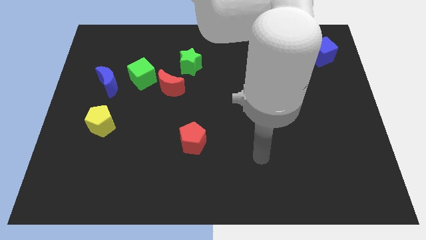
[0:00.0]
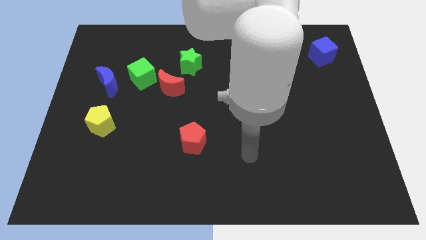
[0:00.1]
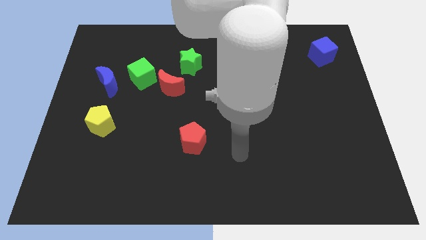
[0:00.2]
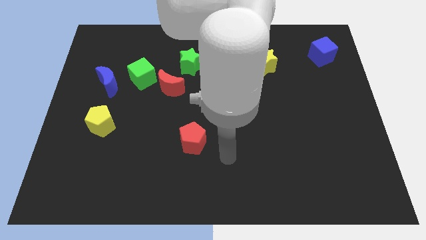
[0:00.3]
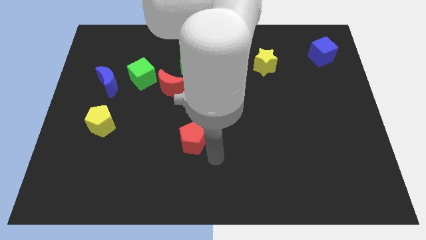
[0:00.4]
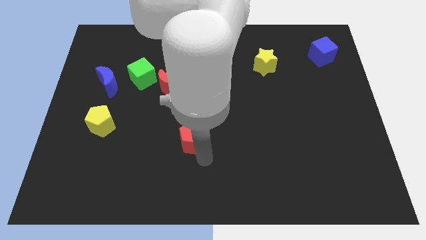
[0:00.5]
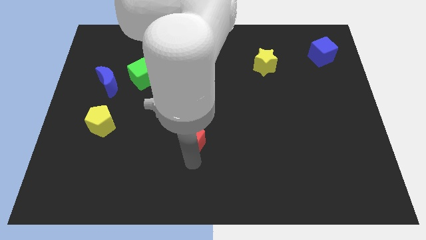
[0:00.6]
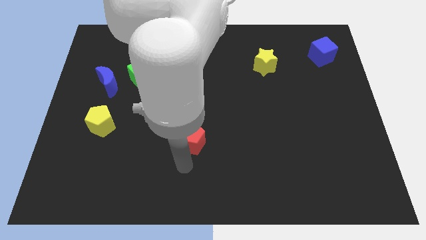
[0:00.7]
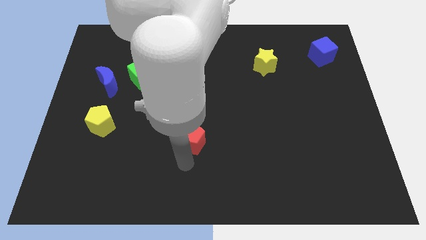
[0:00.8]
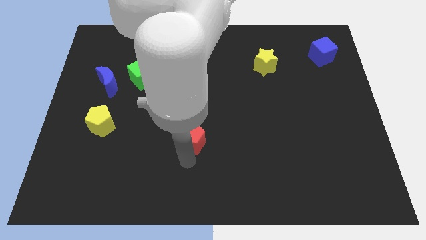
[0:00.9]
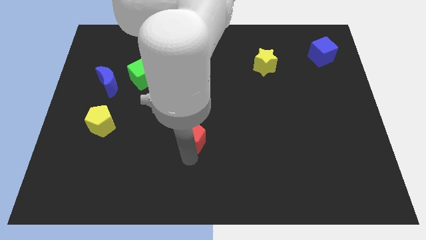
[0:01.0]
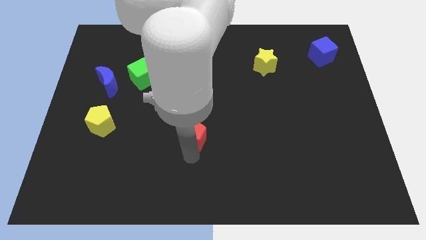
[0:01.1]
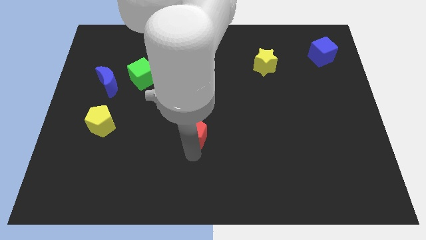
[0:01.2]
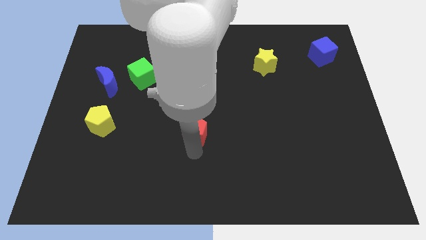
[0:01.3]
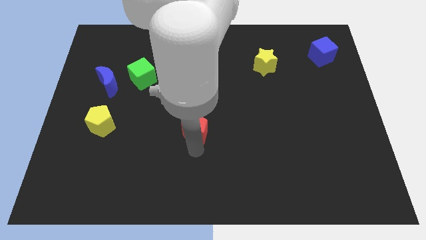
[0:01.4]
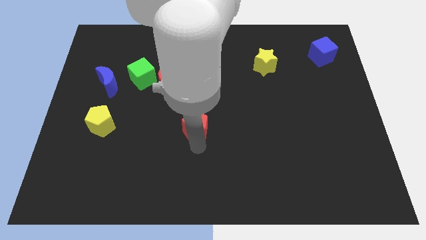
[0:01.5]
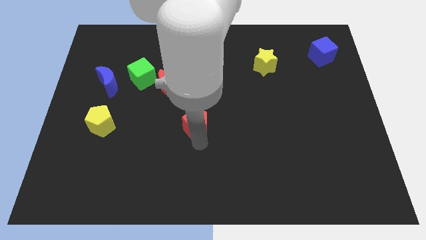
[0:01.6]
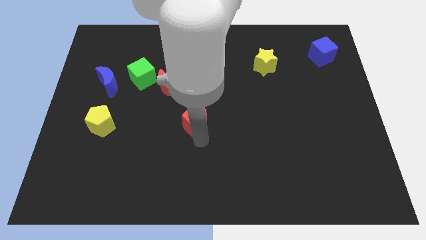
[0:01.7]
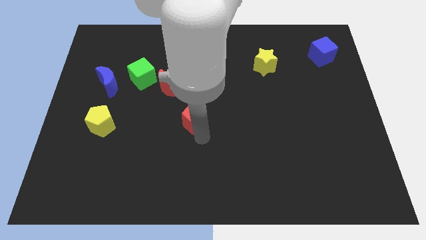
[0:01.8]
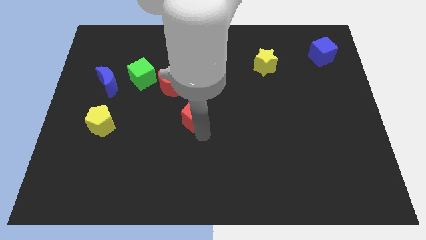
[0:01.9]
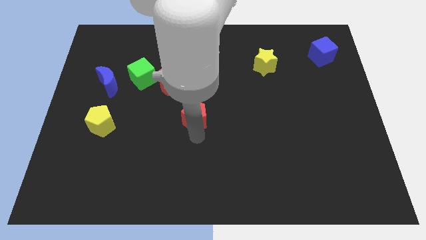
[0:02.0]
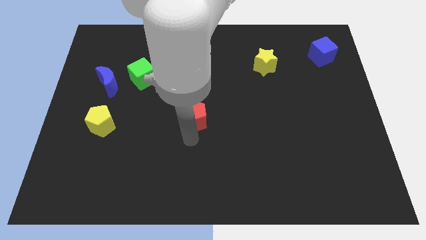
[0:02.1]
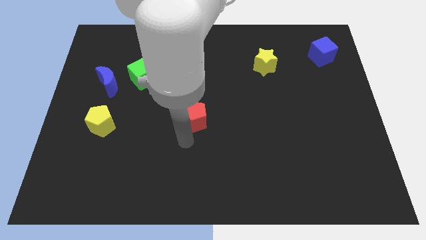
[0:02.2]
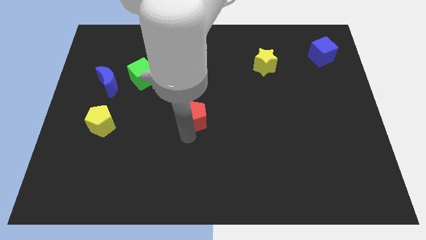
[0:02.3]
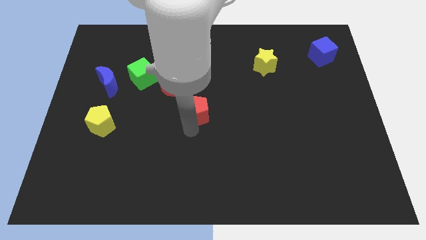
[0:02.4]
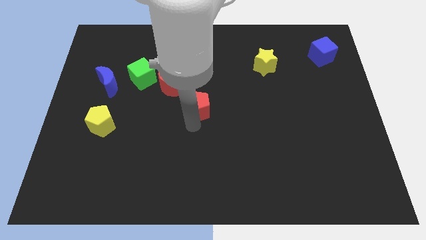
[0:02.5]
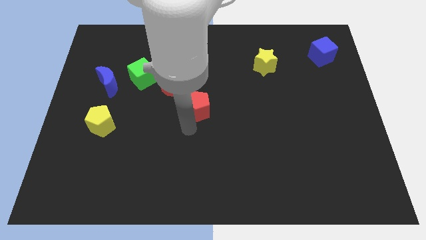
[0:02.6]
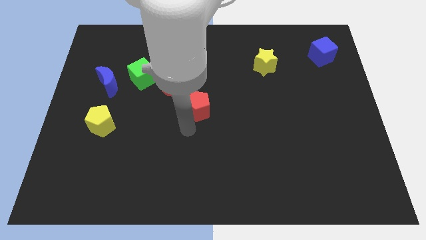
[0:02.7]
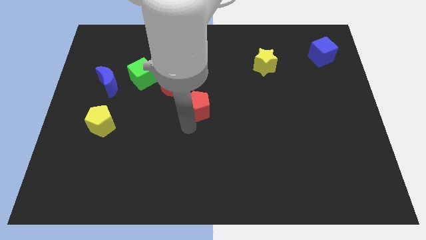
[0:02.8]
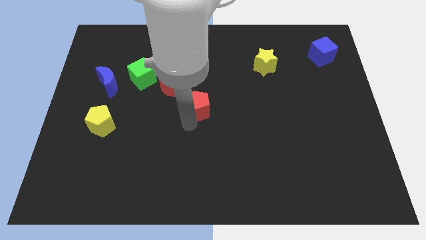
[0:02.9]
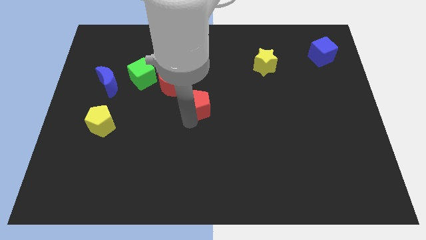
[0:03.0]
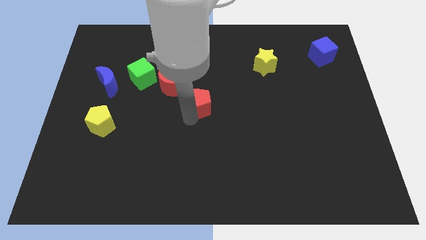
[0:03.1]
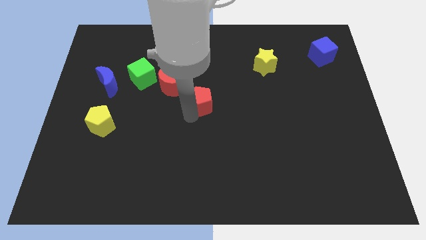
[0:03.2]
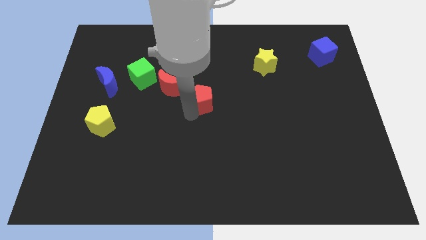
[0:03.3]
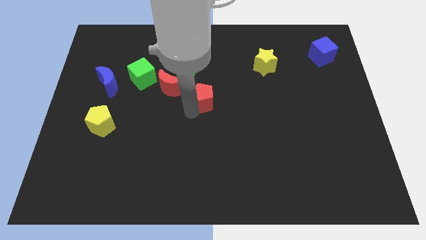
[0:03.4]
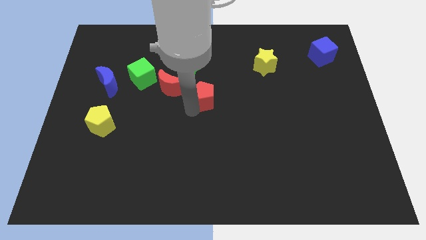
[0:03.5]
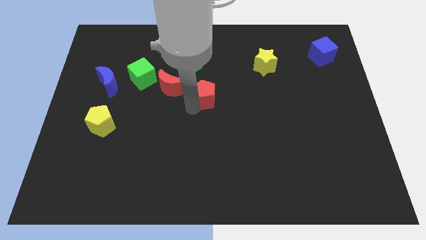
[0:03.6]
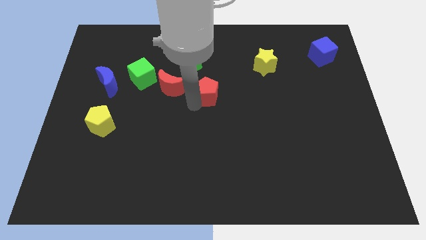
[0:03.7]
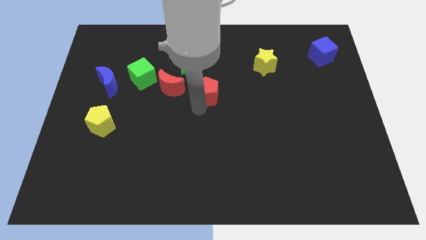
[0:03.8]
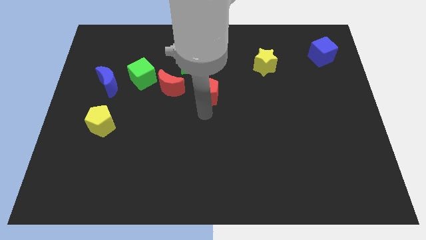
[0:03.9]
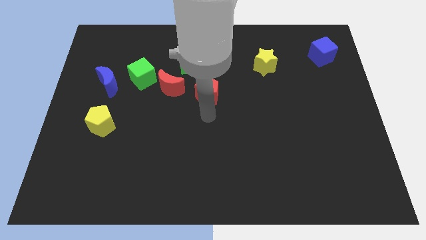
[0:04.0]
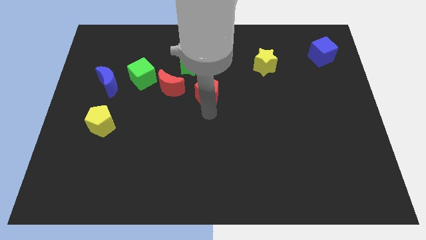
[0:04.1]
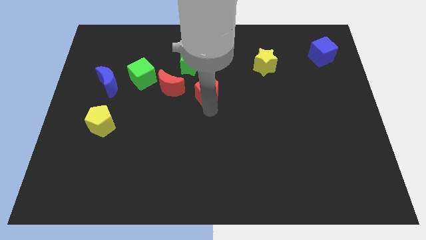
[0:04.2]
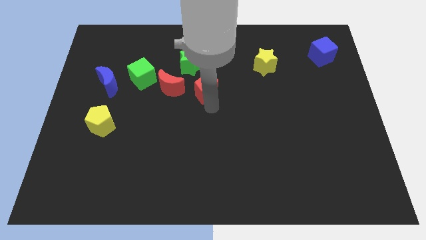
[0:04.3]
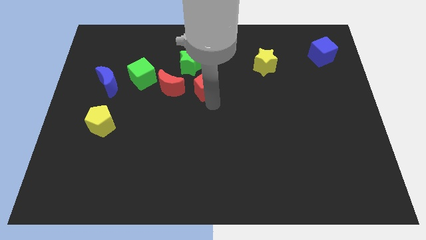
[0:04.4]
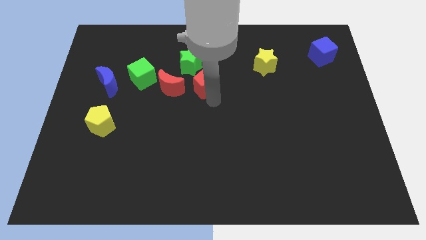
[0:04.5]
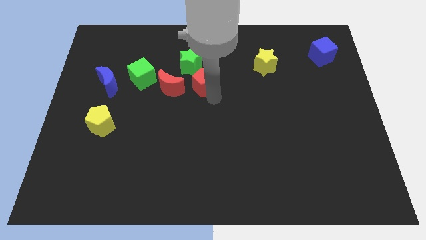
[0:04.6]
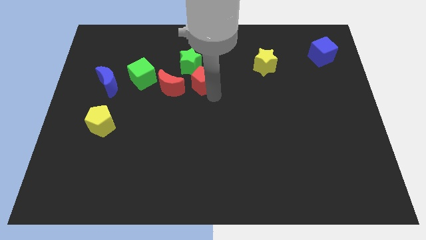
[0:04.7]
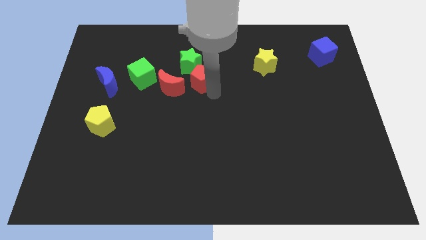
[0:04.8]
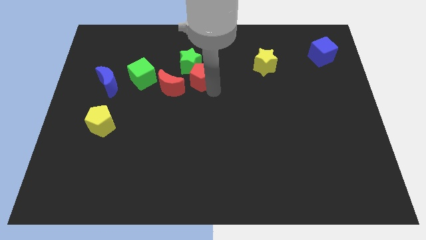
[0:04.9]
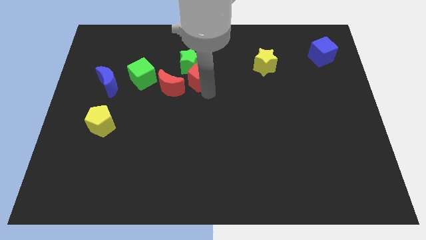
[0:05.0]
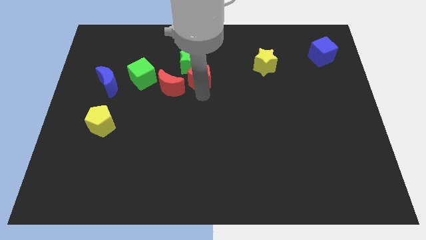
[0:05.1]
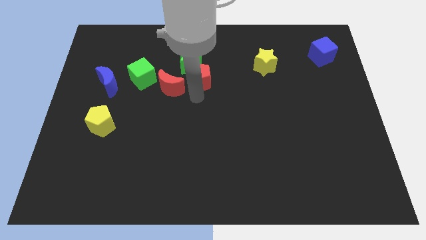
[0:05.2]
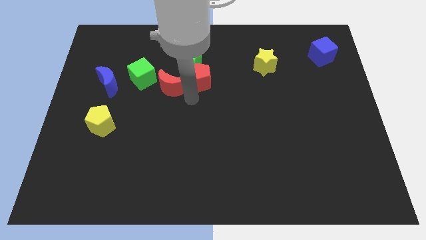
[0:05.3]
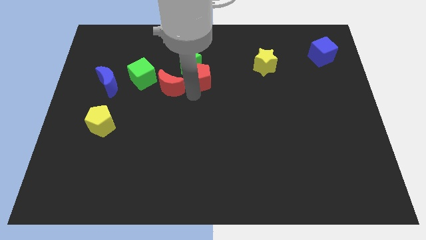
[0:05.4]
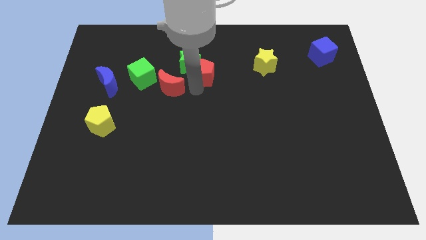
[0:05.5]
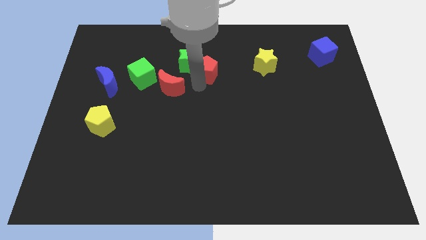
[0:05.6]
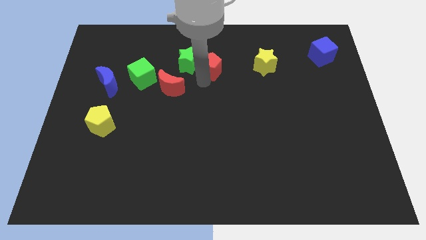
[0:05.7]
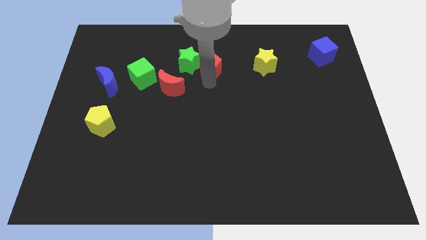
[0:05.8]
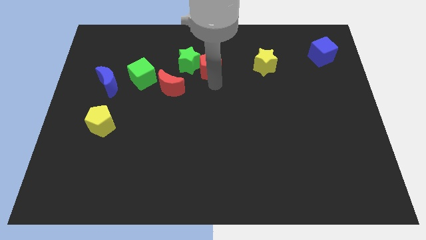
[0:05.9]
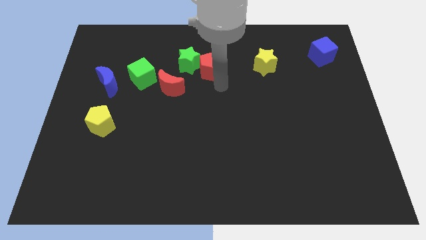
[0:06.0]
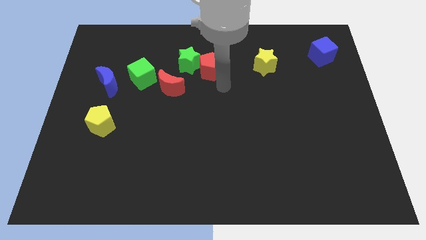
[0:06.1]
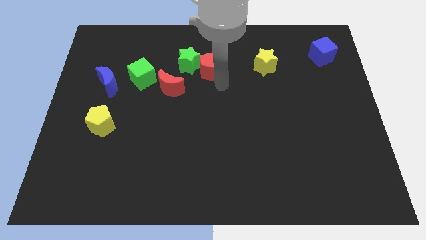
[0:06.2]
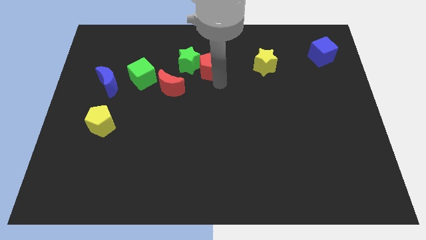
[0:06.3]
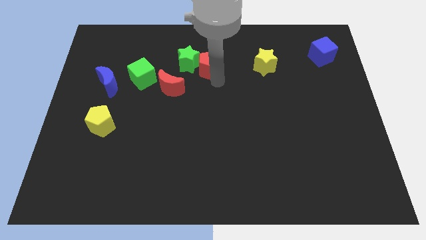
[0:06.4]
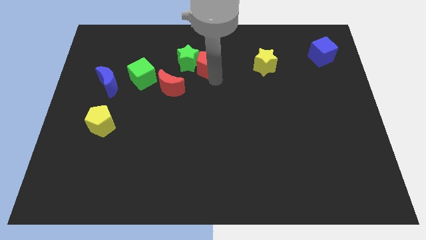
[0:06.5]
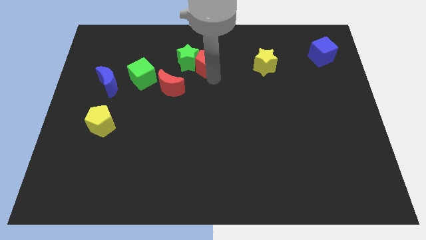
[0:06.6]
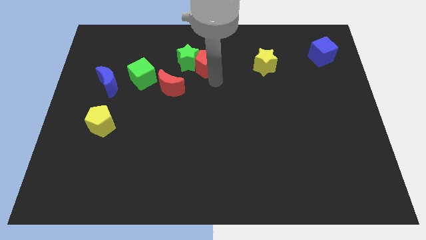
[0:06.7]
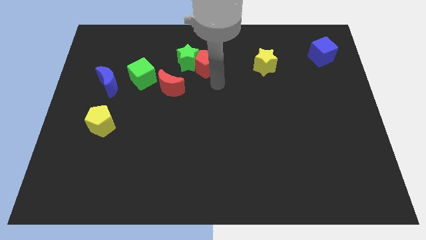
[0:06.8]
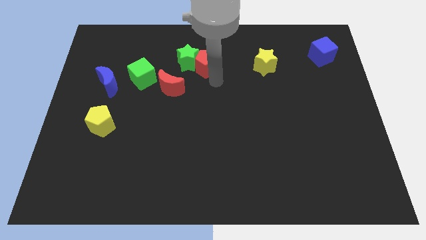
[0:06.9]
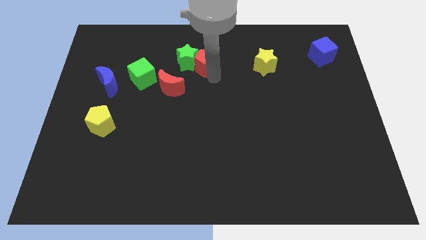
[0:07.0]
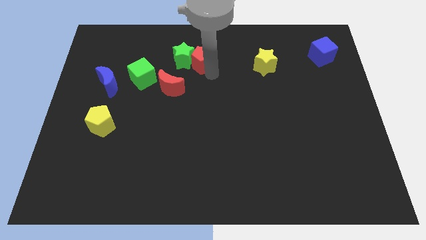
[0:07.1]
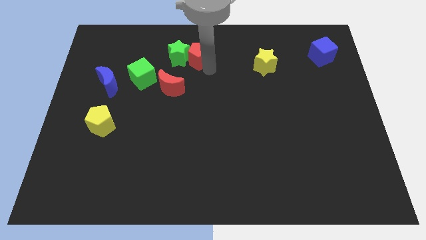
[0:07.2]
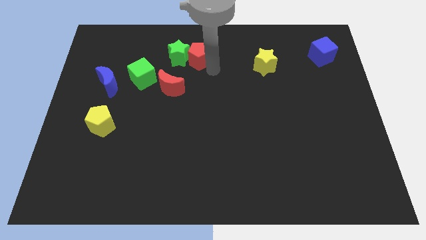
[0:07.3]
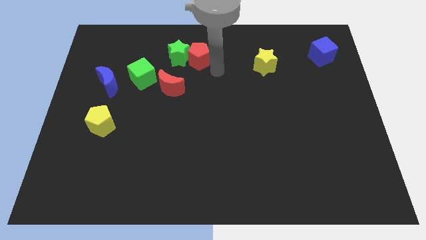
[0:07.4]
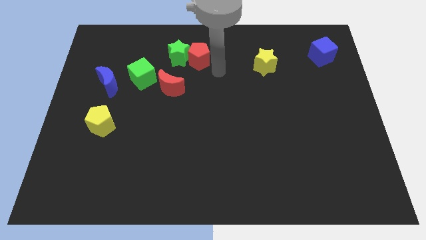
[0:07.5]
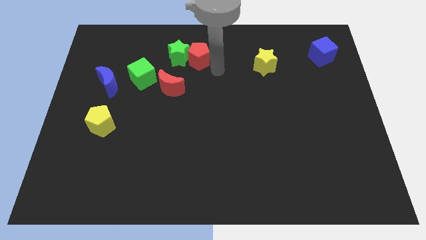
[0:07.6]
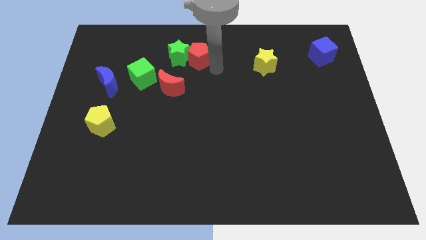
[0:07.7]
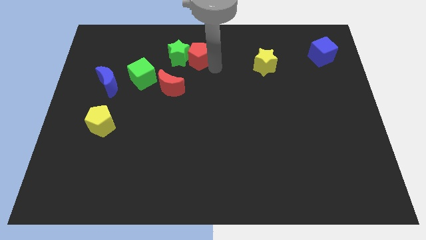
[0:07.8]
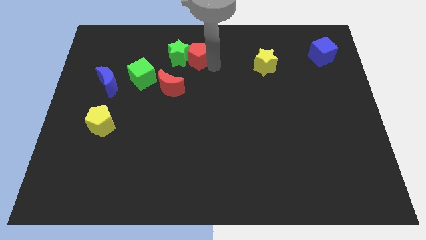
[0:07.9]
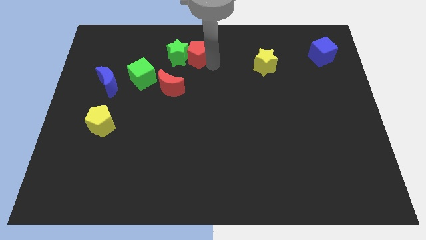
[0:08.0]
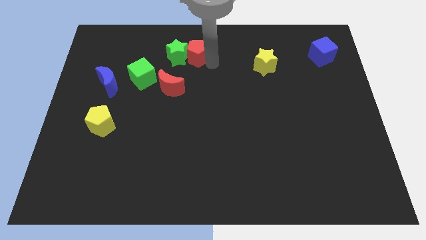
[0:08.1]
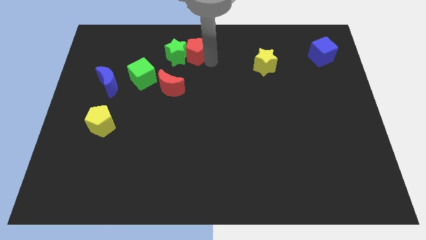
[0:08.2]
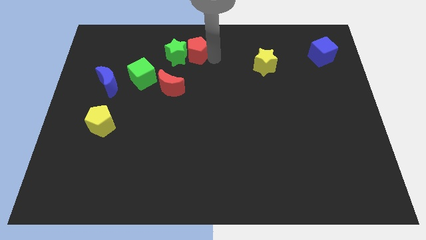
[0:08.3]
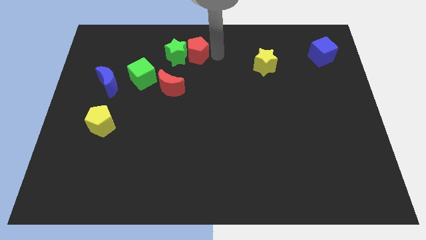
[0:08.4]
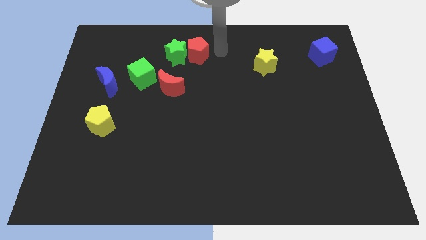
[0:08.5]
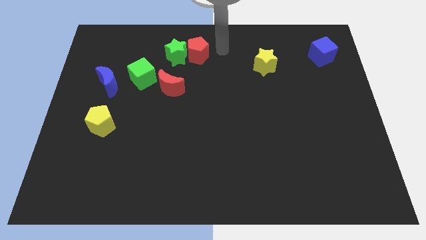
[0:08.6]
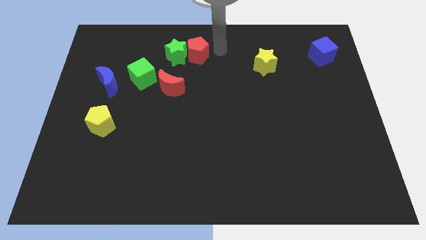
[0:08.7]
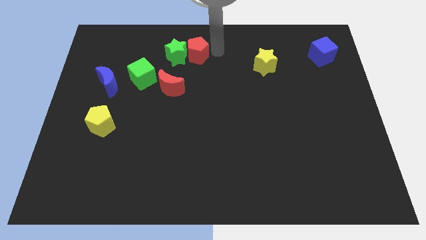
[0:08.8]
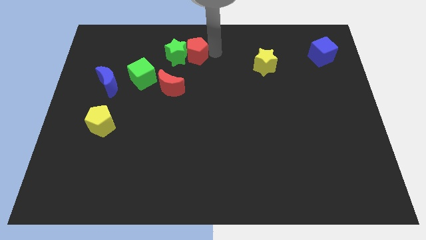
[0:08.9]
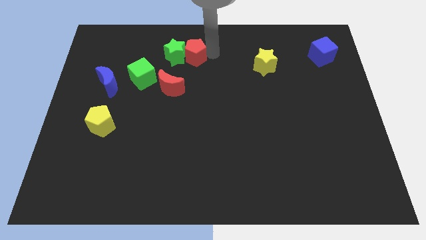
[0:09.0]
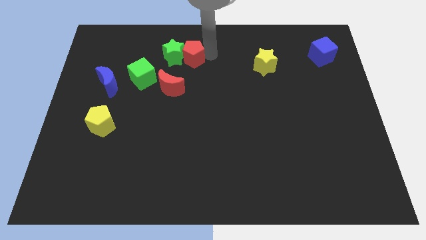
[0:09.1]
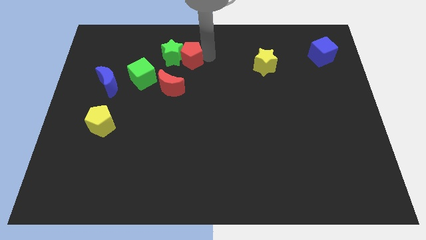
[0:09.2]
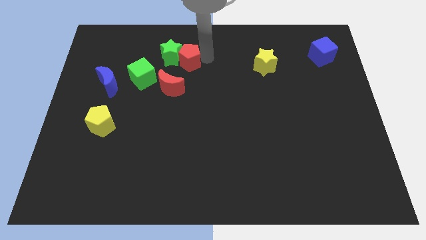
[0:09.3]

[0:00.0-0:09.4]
move the red pentagon to the top side of the red moon
